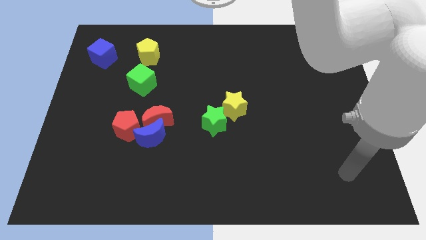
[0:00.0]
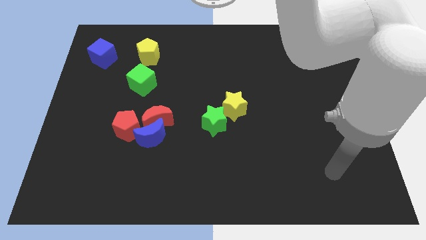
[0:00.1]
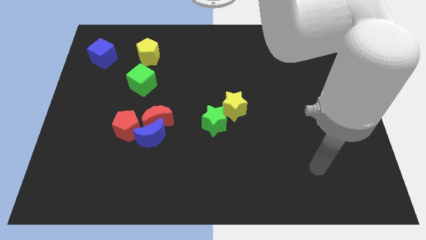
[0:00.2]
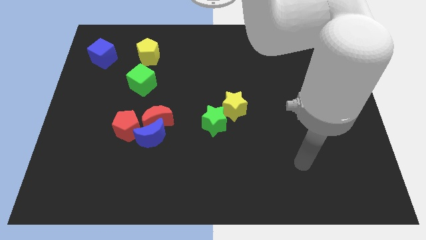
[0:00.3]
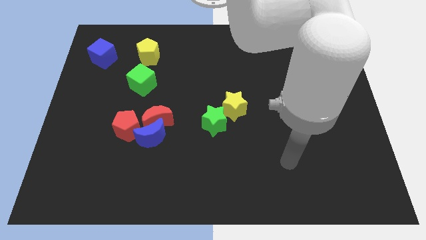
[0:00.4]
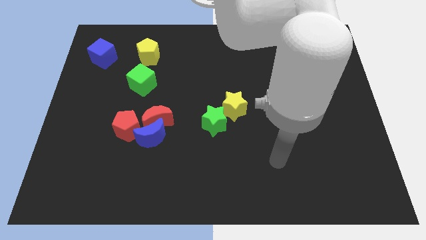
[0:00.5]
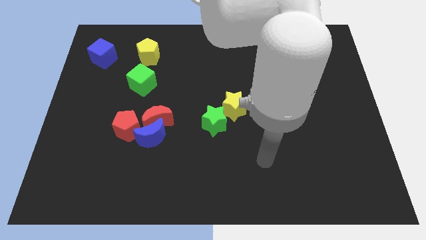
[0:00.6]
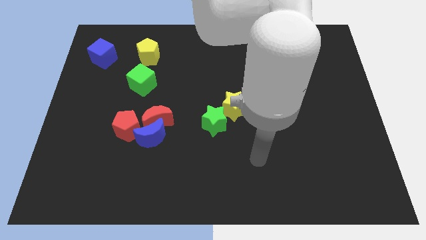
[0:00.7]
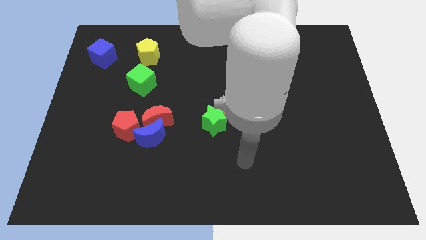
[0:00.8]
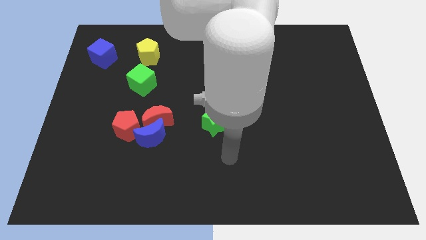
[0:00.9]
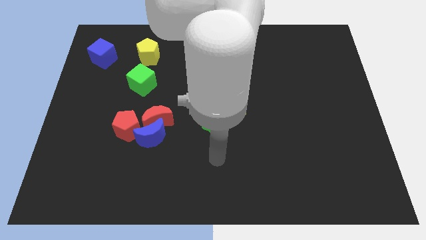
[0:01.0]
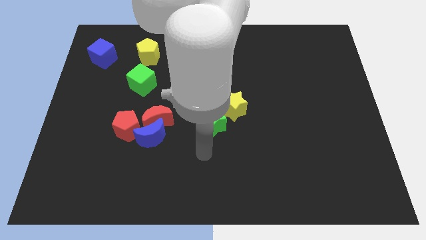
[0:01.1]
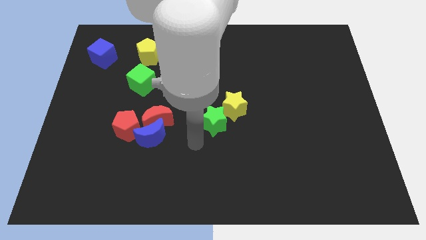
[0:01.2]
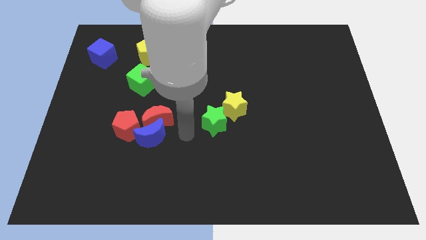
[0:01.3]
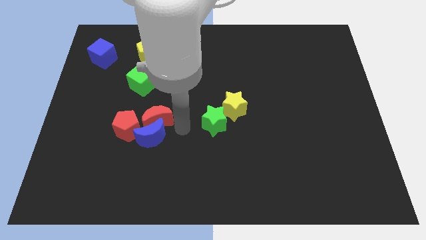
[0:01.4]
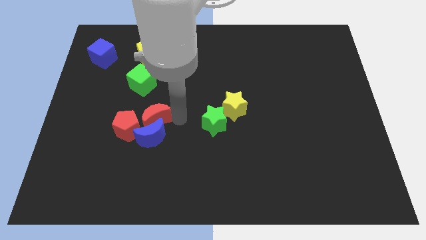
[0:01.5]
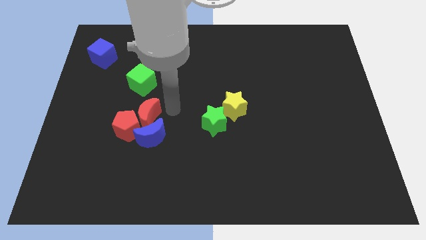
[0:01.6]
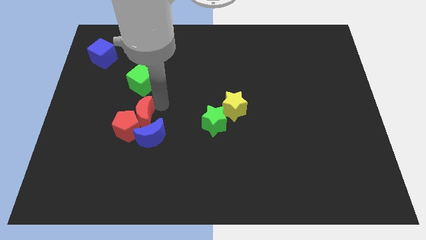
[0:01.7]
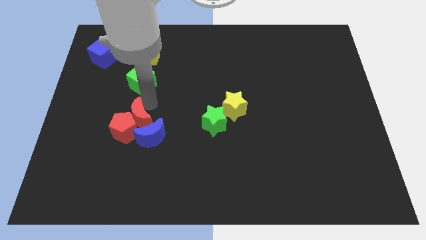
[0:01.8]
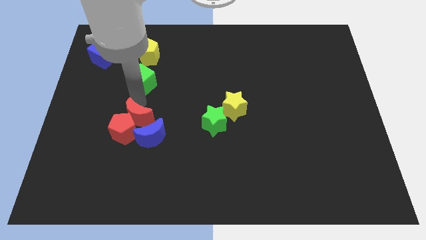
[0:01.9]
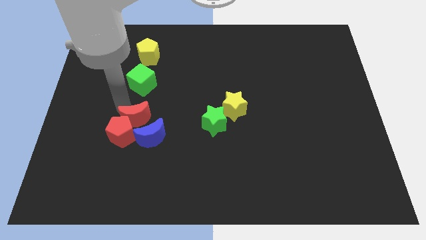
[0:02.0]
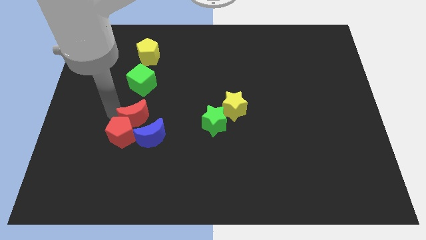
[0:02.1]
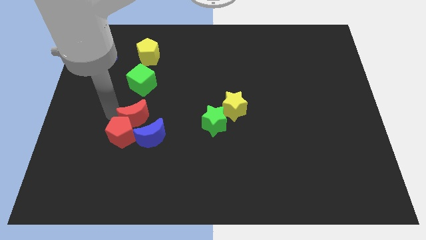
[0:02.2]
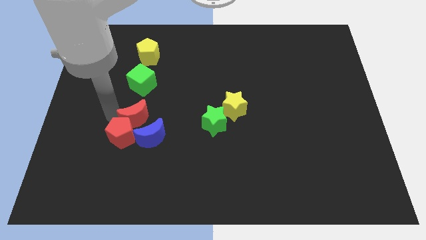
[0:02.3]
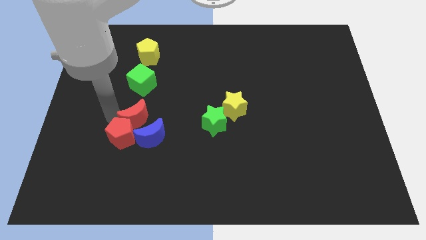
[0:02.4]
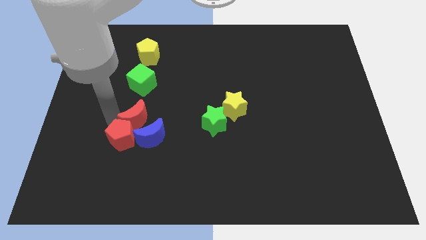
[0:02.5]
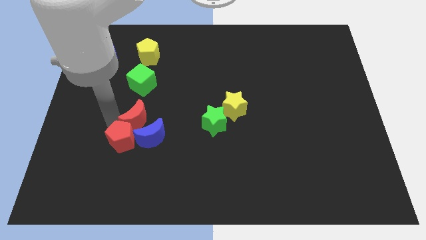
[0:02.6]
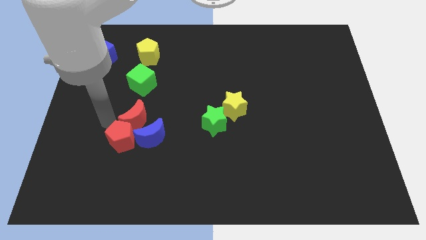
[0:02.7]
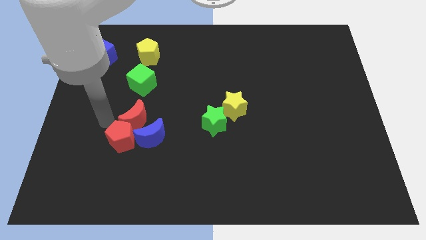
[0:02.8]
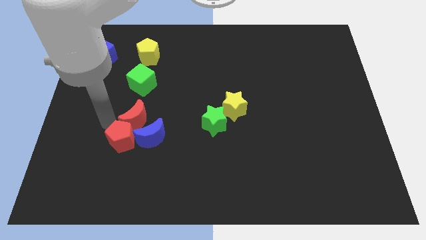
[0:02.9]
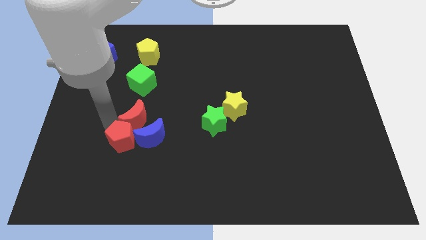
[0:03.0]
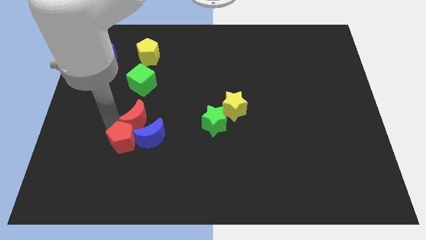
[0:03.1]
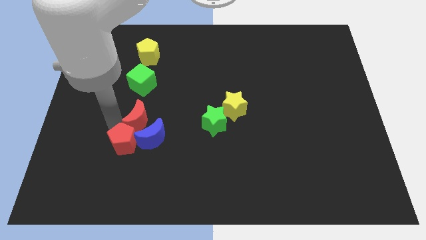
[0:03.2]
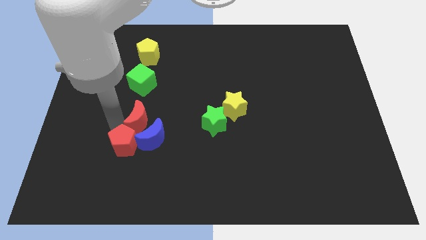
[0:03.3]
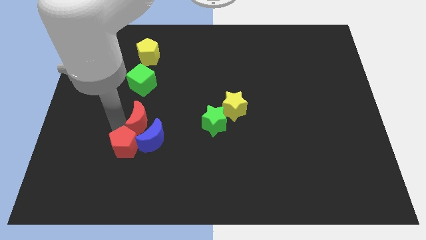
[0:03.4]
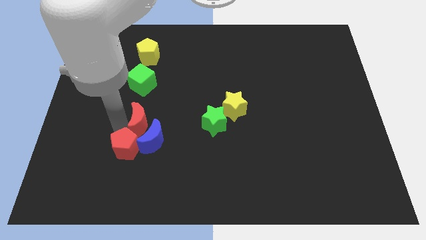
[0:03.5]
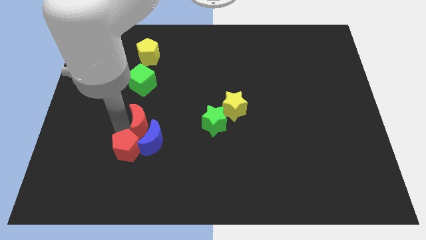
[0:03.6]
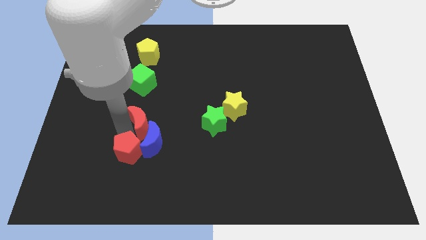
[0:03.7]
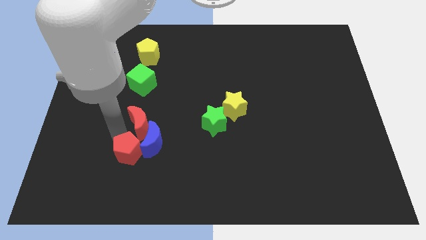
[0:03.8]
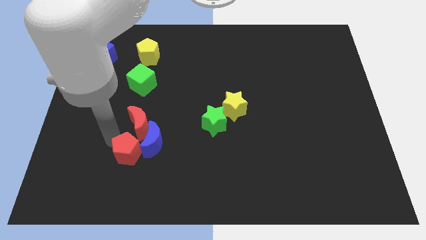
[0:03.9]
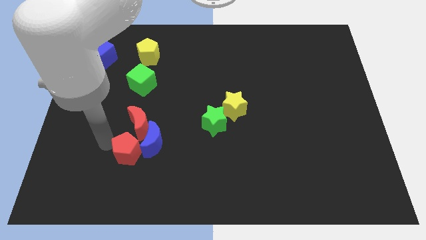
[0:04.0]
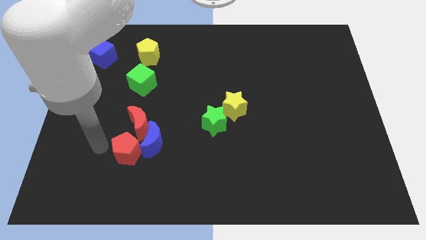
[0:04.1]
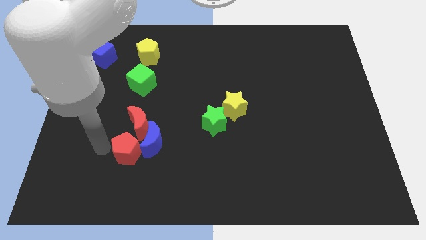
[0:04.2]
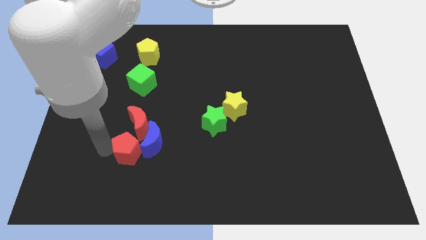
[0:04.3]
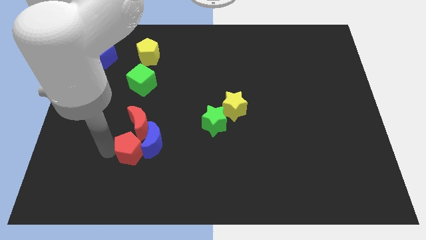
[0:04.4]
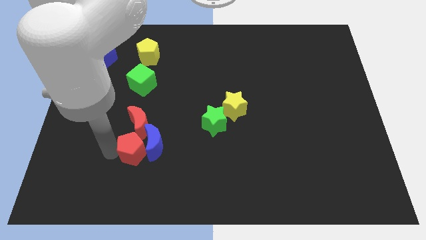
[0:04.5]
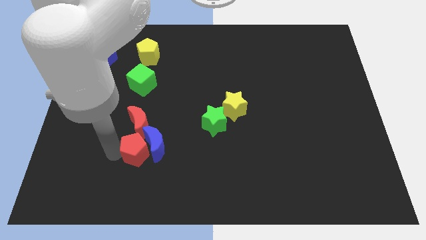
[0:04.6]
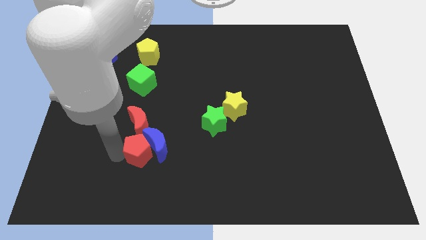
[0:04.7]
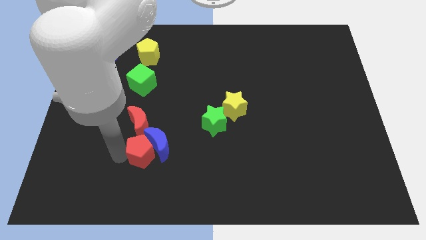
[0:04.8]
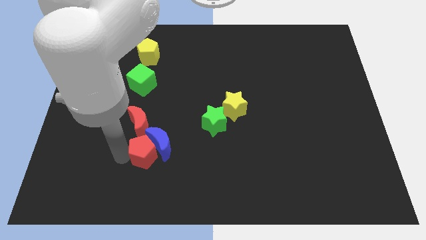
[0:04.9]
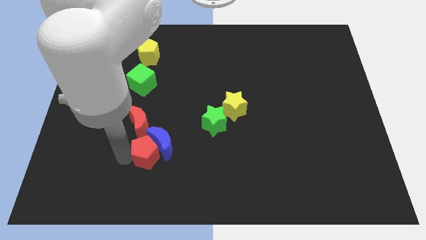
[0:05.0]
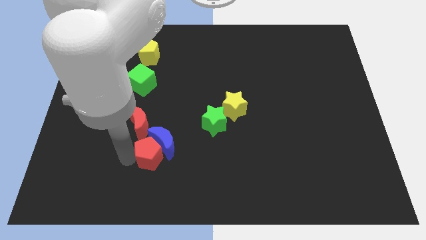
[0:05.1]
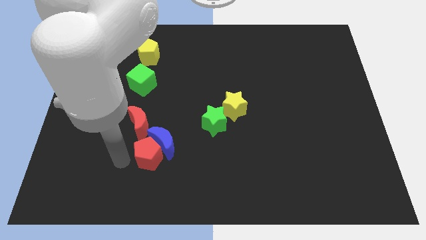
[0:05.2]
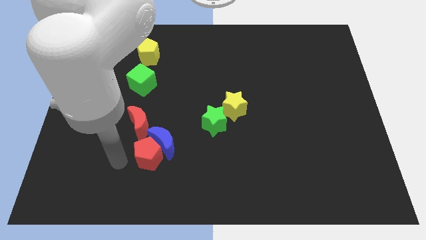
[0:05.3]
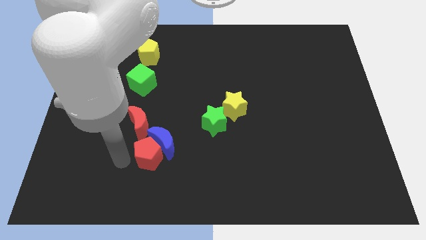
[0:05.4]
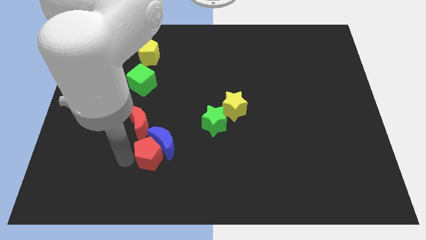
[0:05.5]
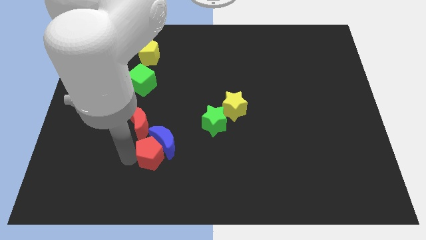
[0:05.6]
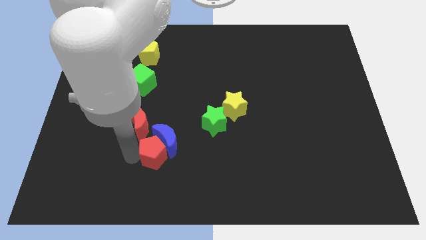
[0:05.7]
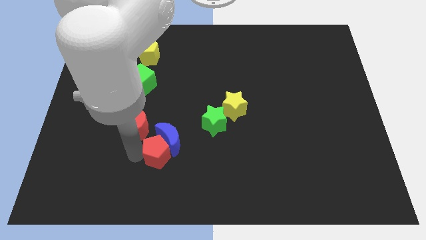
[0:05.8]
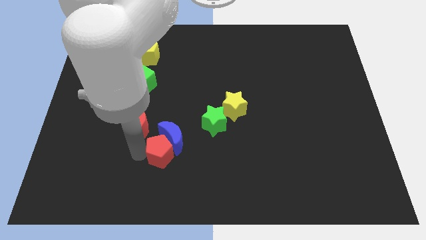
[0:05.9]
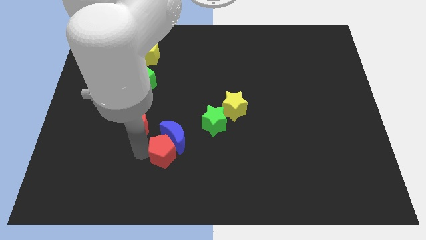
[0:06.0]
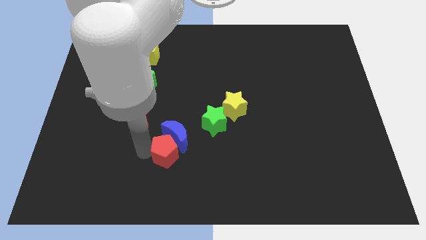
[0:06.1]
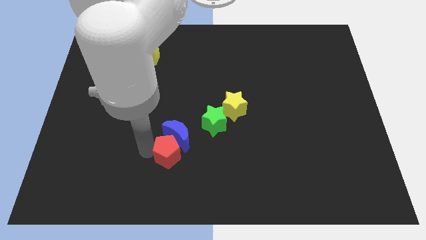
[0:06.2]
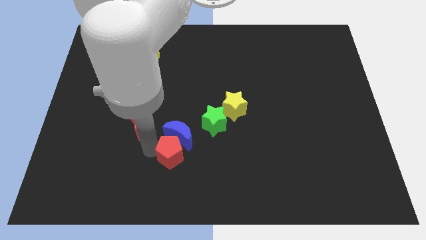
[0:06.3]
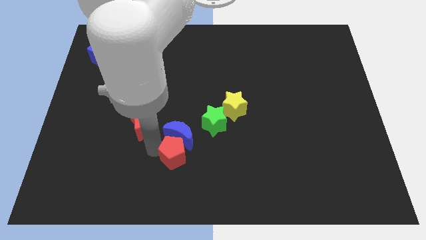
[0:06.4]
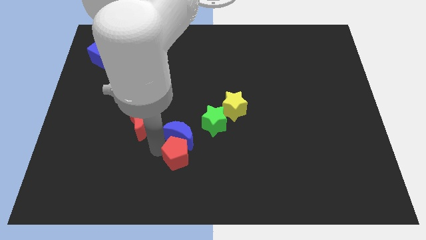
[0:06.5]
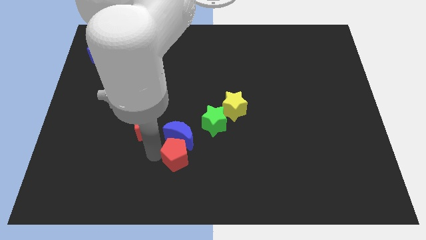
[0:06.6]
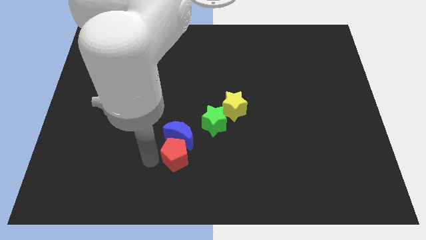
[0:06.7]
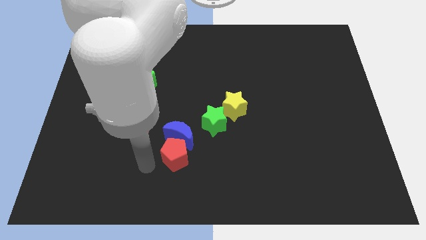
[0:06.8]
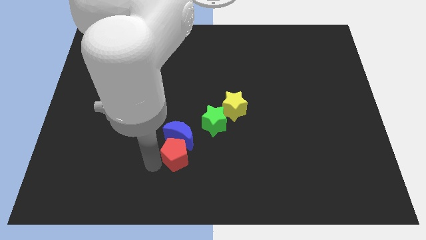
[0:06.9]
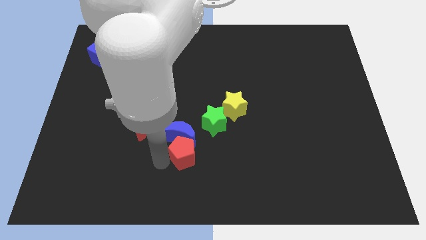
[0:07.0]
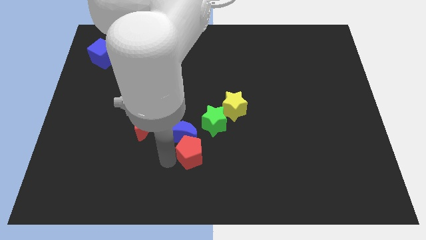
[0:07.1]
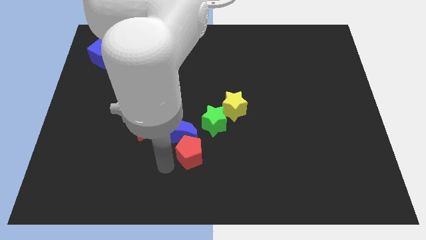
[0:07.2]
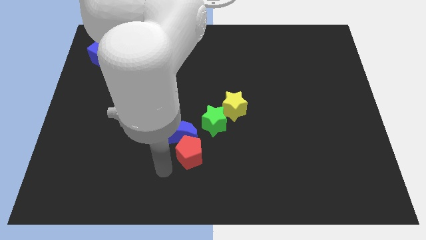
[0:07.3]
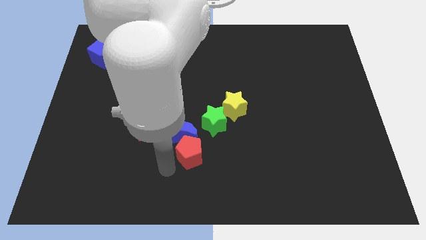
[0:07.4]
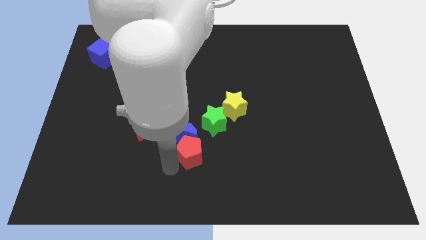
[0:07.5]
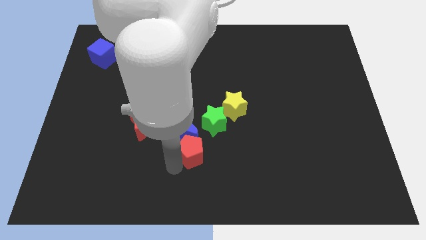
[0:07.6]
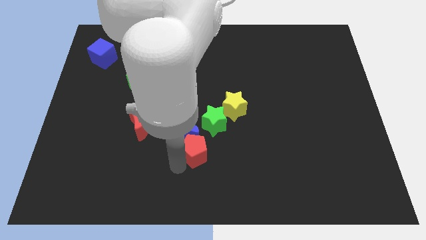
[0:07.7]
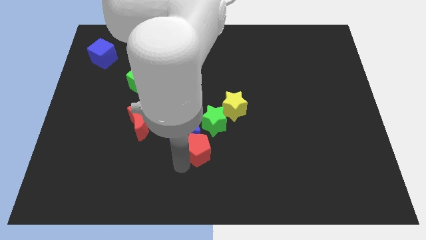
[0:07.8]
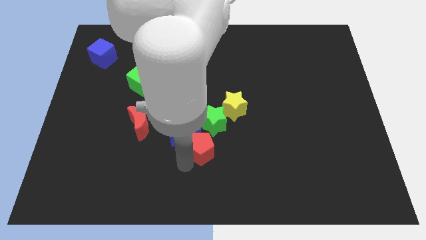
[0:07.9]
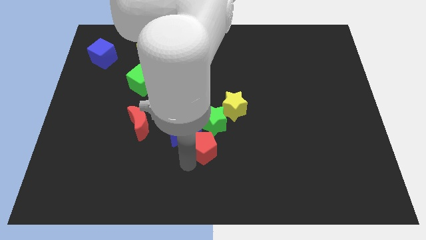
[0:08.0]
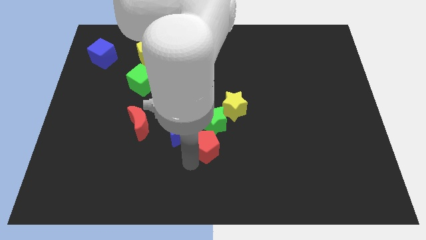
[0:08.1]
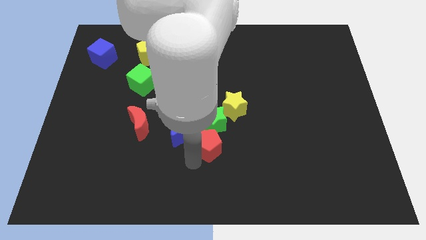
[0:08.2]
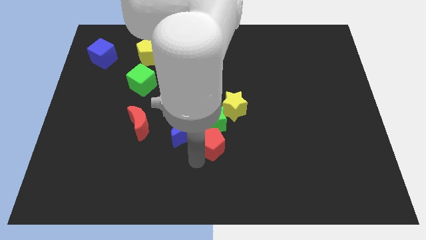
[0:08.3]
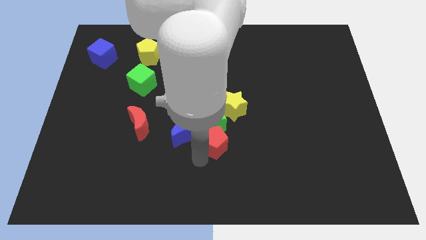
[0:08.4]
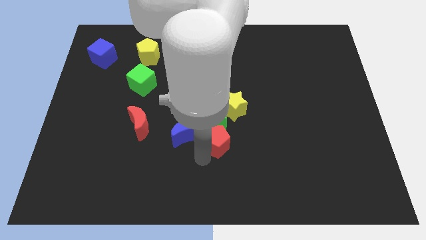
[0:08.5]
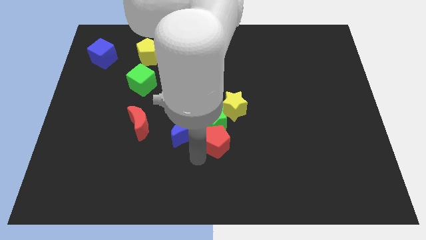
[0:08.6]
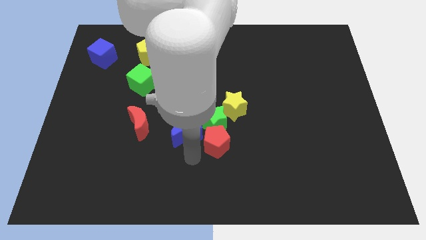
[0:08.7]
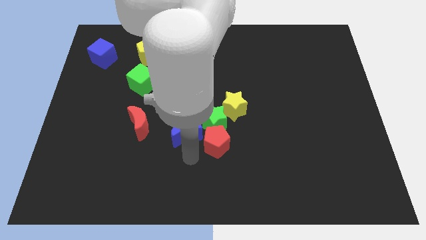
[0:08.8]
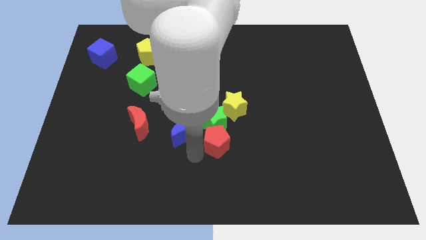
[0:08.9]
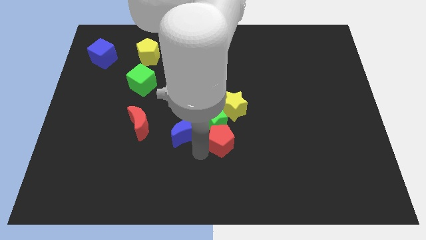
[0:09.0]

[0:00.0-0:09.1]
push the red pentagon to the right
